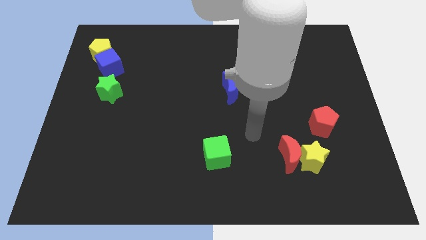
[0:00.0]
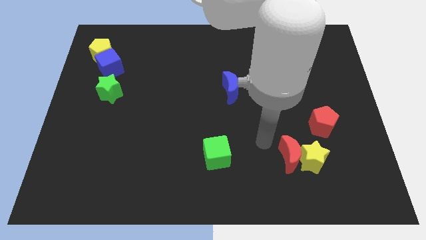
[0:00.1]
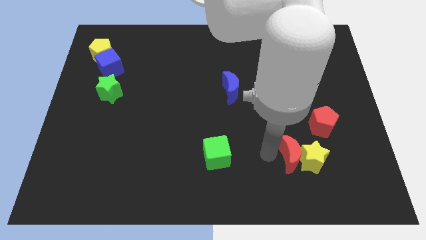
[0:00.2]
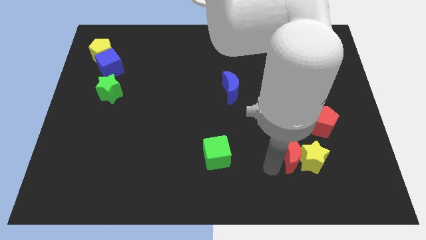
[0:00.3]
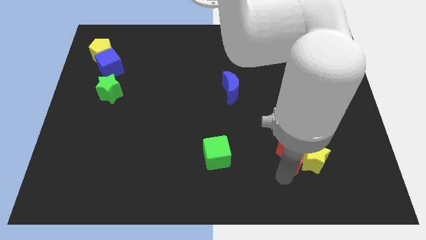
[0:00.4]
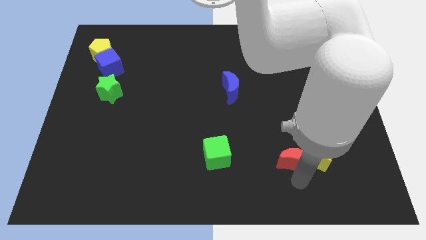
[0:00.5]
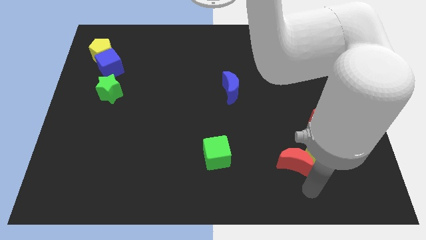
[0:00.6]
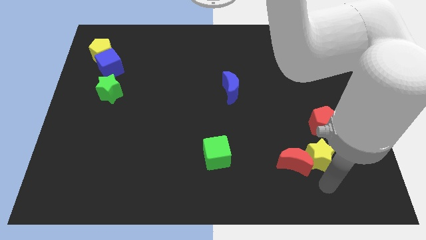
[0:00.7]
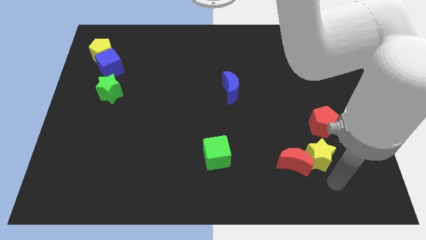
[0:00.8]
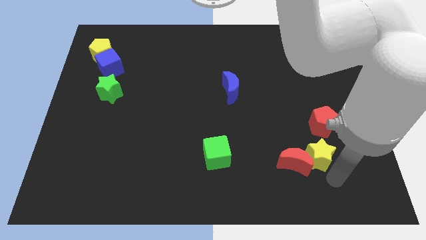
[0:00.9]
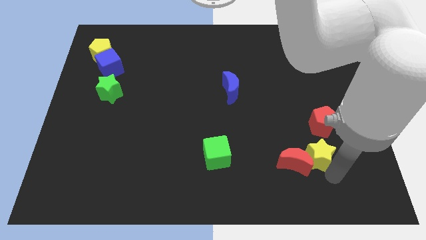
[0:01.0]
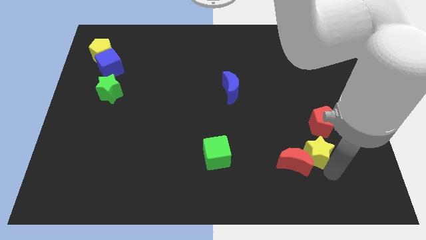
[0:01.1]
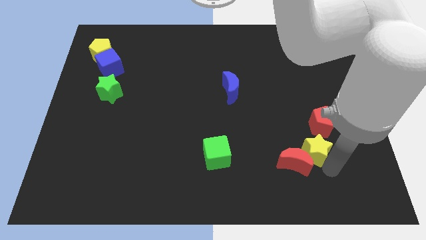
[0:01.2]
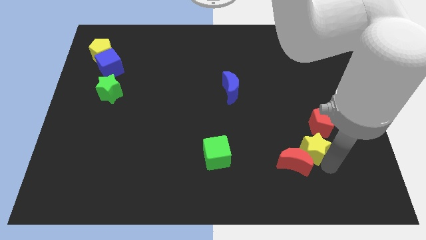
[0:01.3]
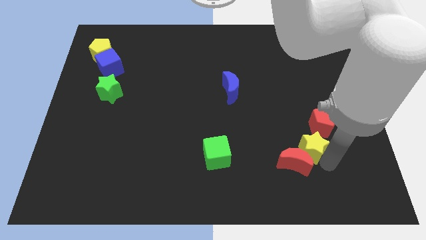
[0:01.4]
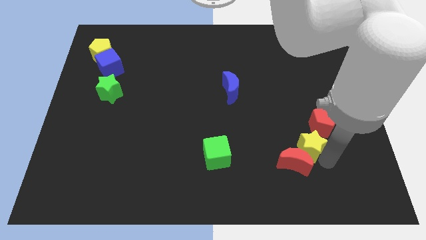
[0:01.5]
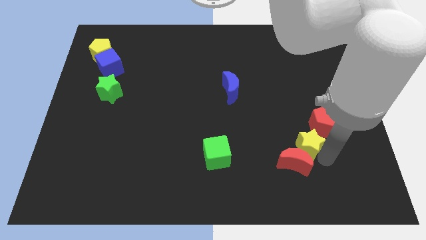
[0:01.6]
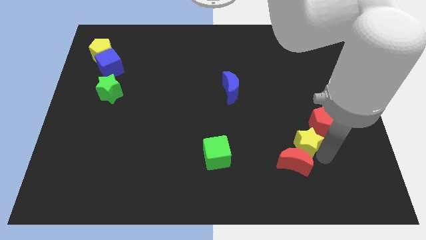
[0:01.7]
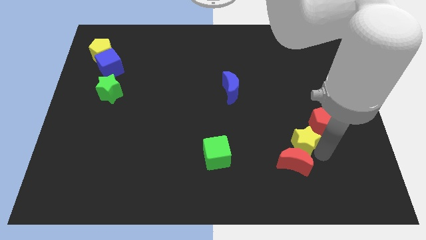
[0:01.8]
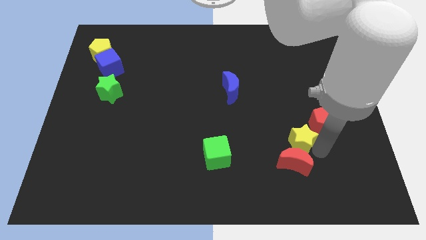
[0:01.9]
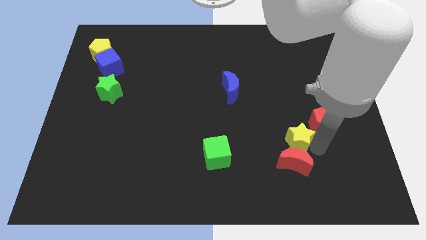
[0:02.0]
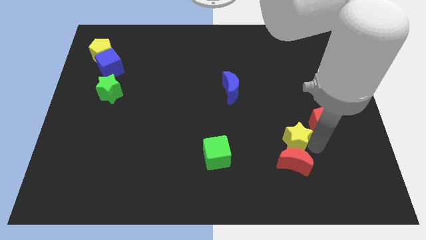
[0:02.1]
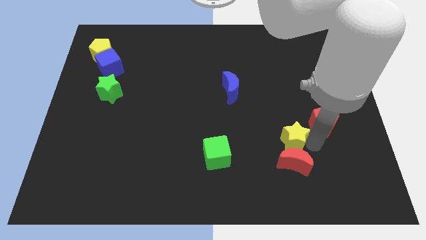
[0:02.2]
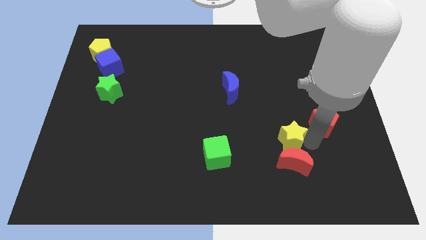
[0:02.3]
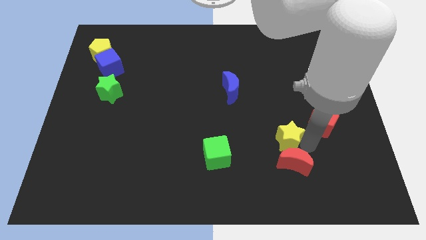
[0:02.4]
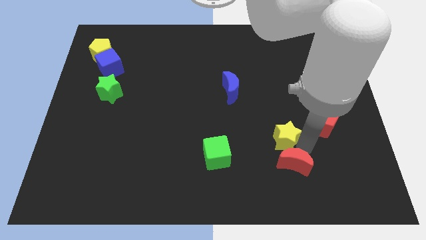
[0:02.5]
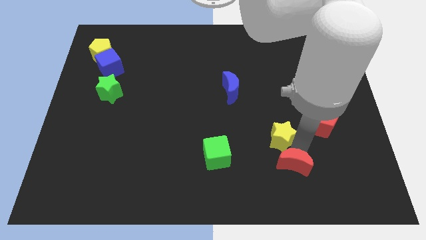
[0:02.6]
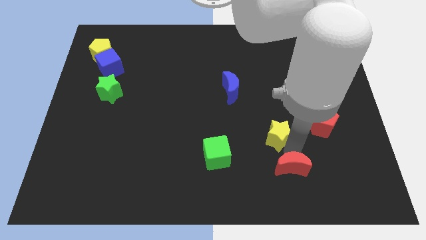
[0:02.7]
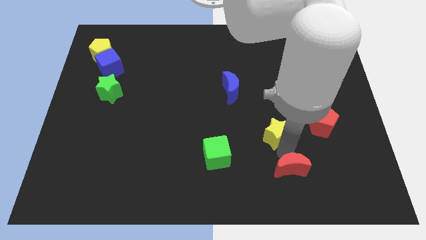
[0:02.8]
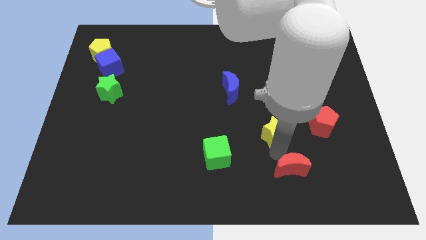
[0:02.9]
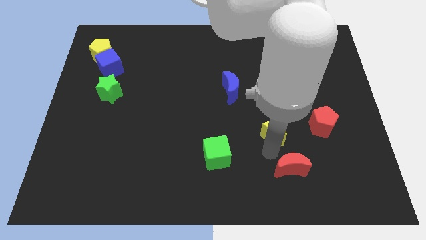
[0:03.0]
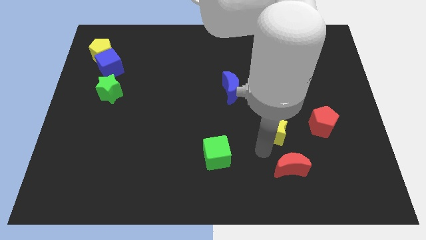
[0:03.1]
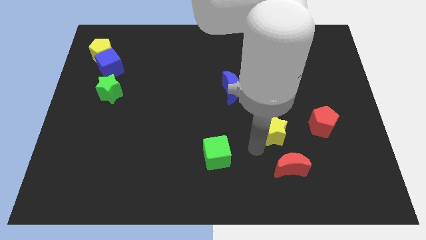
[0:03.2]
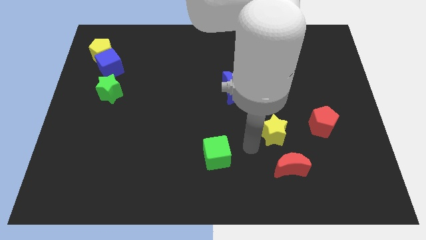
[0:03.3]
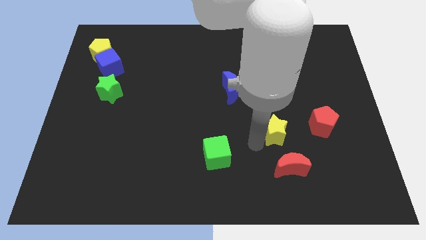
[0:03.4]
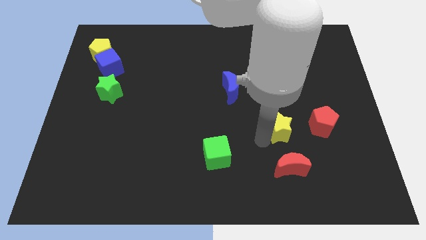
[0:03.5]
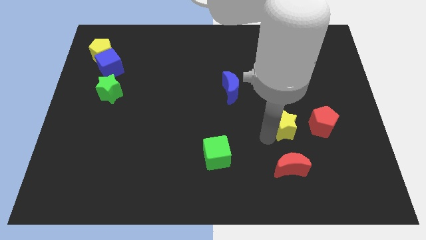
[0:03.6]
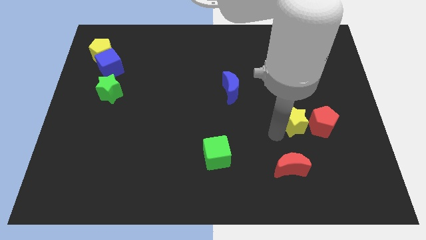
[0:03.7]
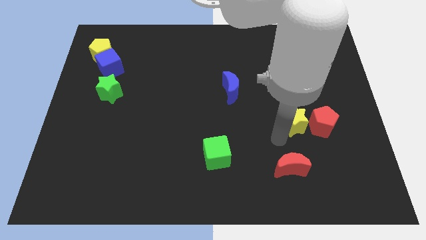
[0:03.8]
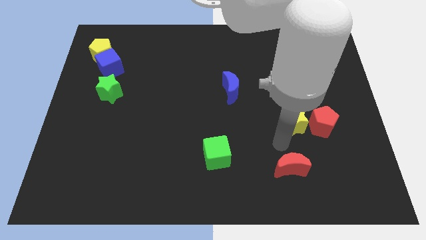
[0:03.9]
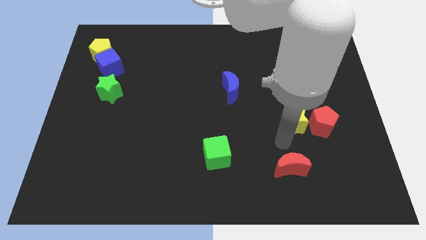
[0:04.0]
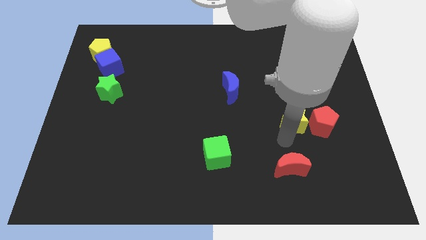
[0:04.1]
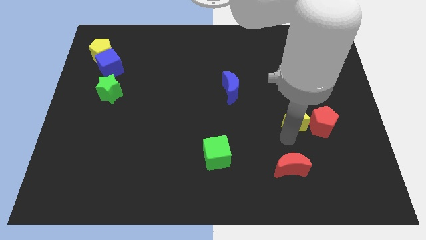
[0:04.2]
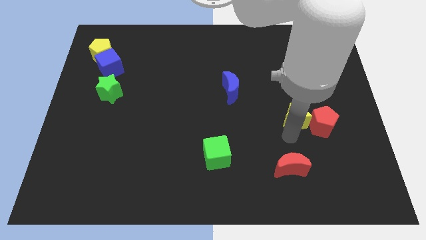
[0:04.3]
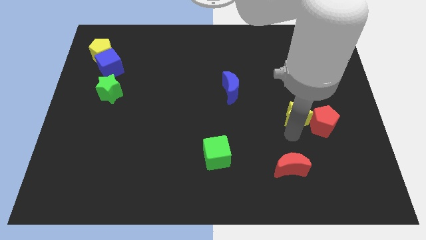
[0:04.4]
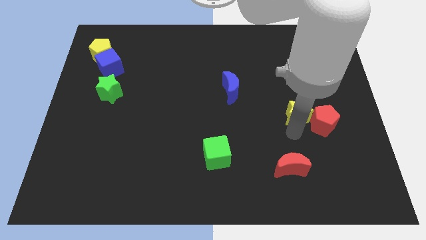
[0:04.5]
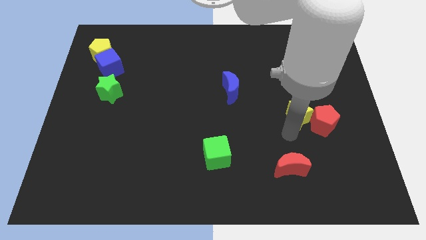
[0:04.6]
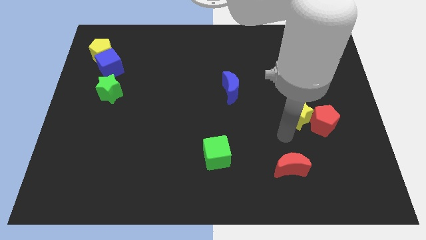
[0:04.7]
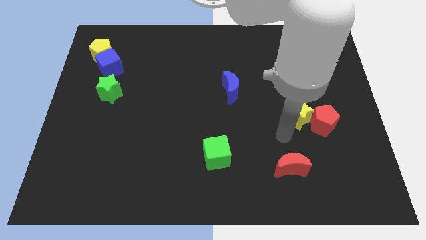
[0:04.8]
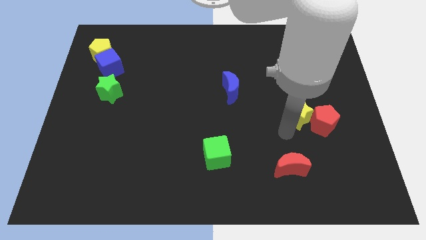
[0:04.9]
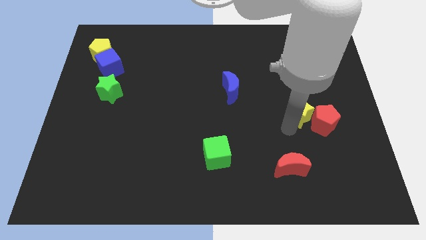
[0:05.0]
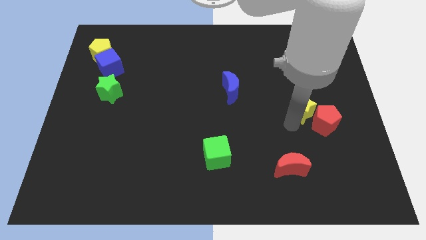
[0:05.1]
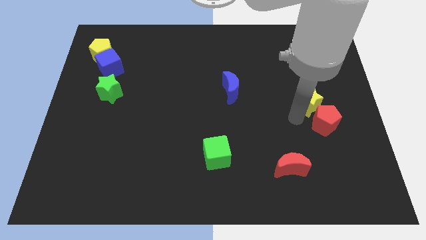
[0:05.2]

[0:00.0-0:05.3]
put the yellow star to the top of the red pentagon

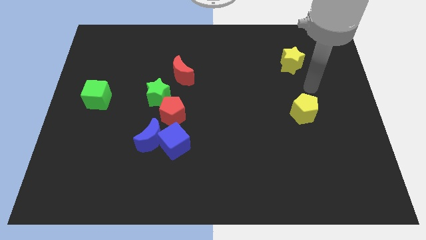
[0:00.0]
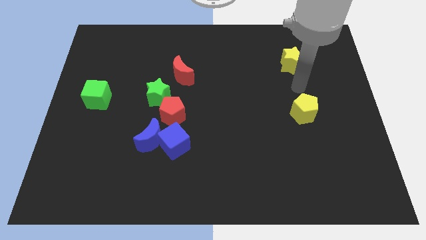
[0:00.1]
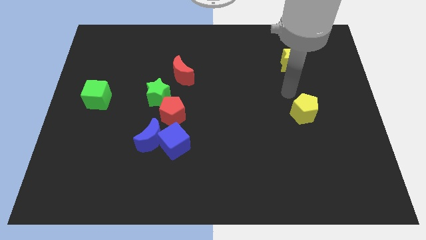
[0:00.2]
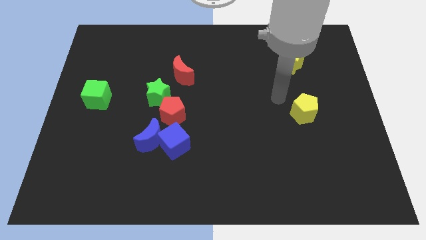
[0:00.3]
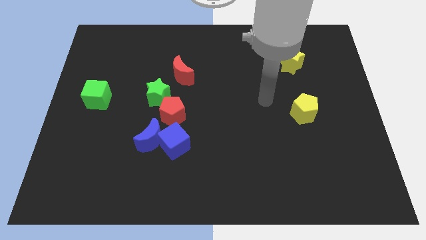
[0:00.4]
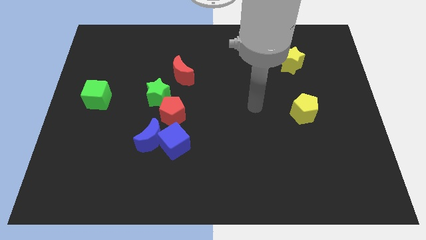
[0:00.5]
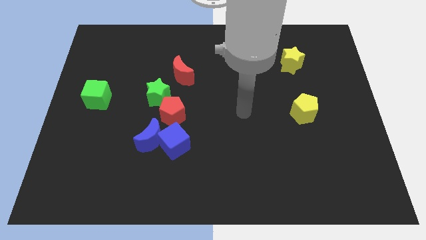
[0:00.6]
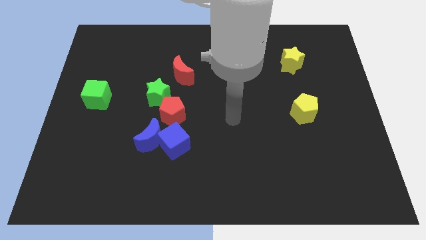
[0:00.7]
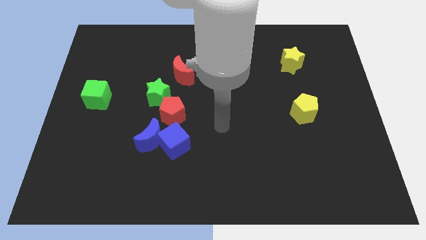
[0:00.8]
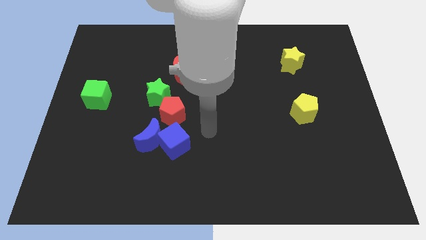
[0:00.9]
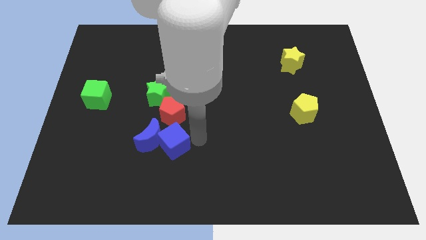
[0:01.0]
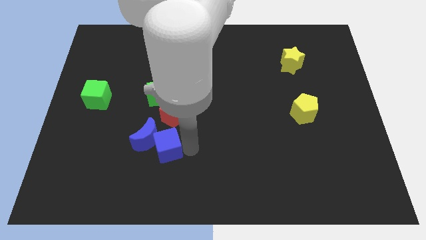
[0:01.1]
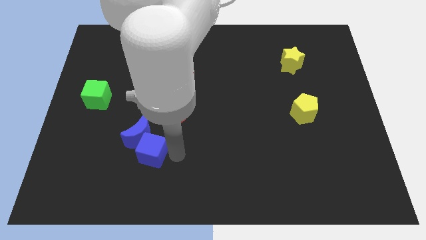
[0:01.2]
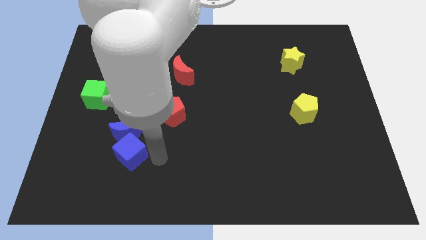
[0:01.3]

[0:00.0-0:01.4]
move the blue moon to the left side of the red pentagon
